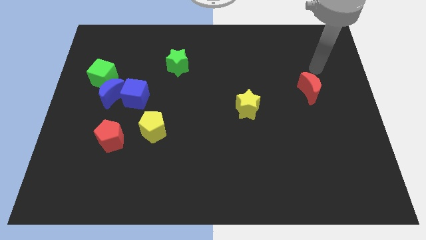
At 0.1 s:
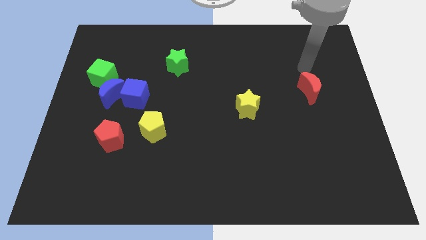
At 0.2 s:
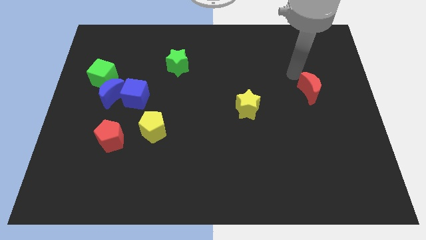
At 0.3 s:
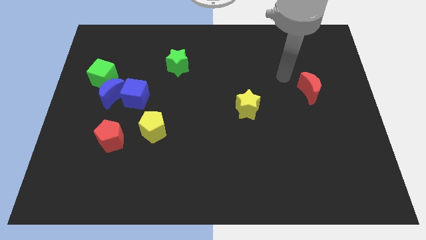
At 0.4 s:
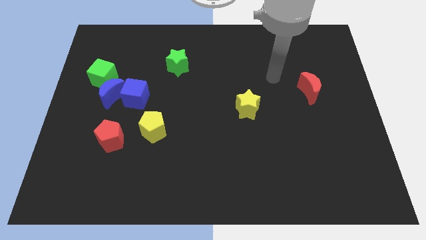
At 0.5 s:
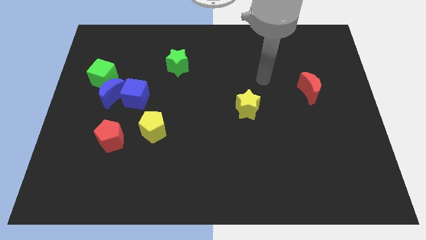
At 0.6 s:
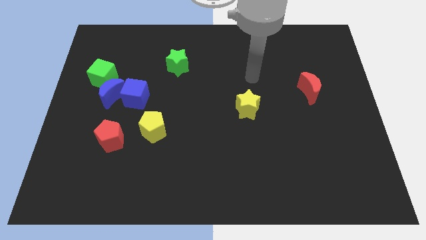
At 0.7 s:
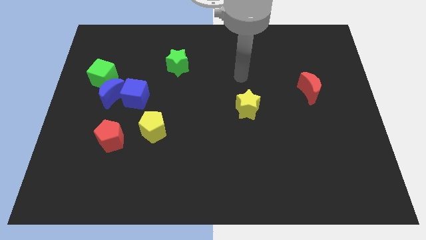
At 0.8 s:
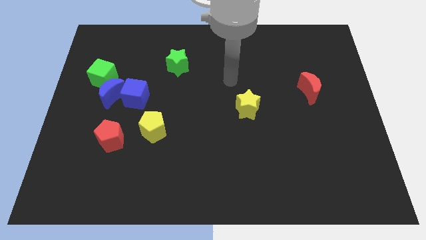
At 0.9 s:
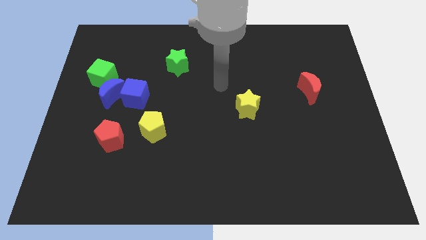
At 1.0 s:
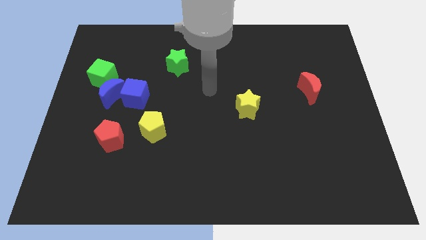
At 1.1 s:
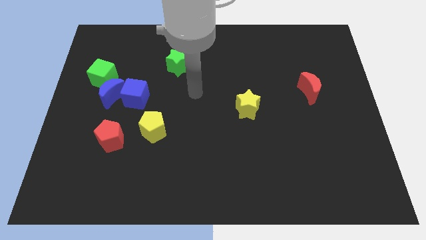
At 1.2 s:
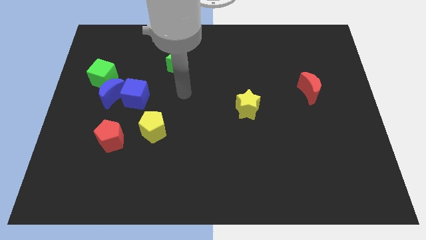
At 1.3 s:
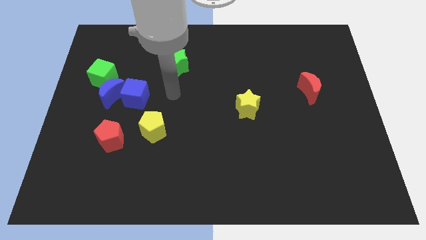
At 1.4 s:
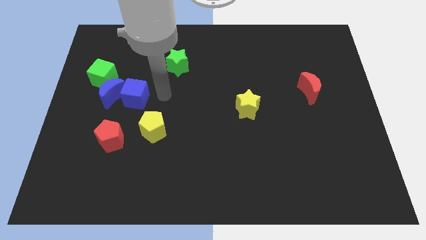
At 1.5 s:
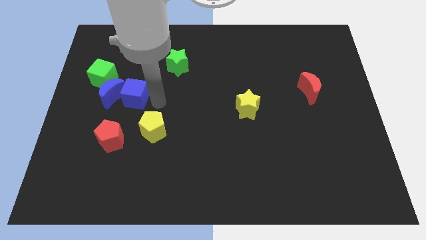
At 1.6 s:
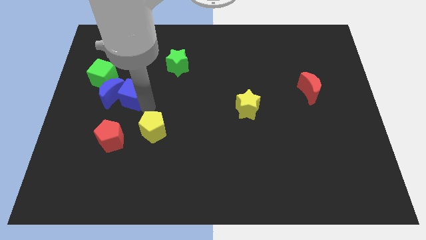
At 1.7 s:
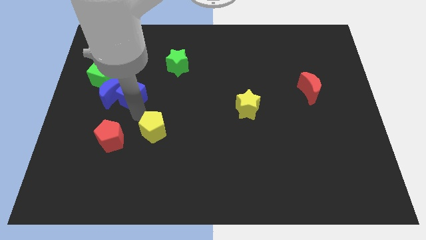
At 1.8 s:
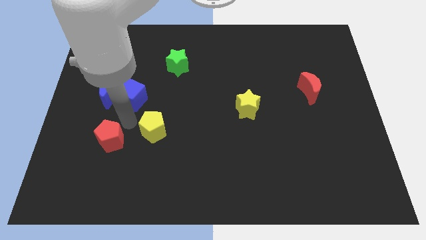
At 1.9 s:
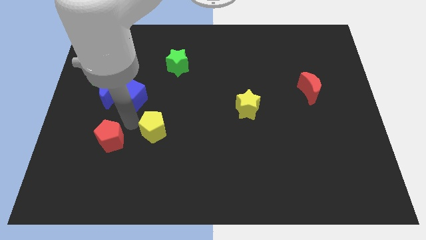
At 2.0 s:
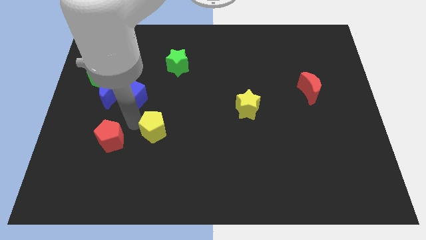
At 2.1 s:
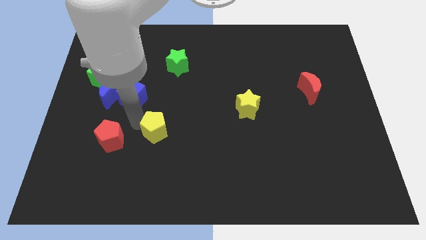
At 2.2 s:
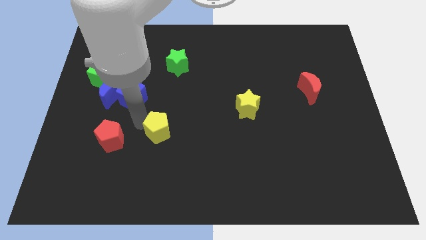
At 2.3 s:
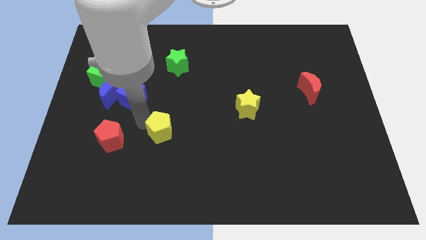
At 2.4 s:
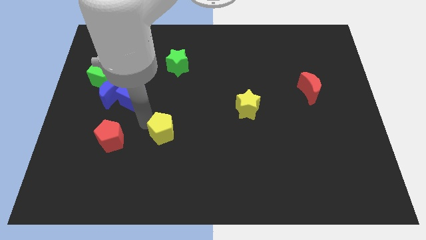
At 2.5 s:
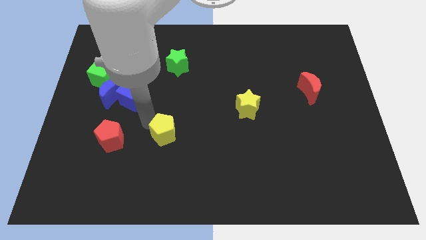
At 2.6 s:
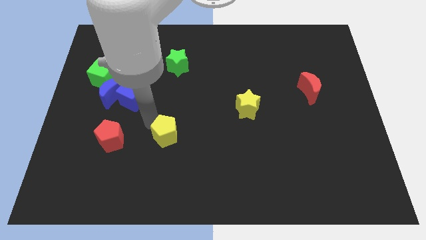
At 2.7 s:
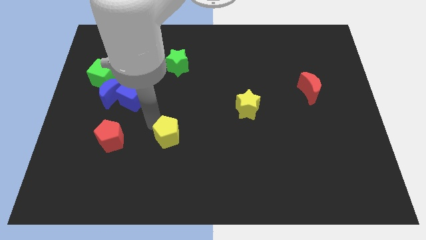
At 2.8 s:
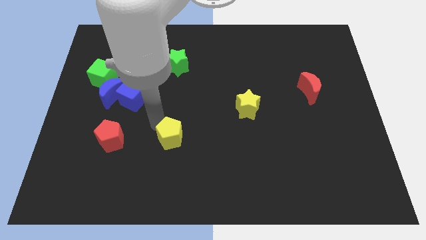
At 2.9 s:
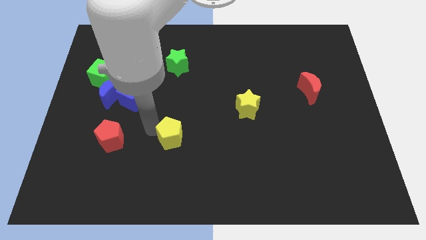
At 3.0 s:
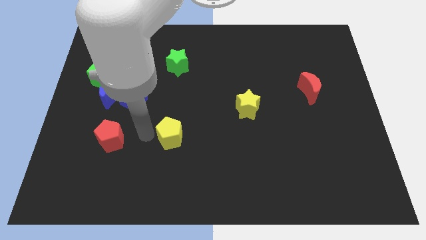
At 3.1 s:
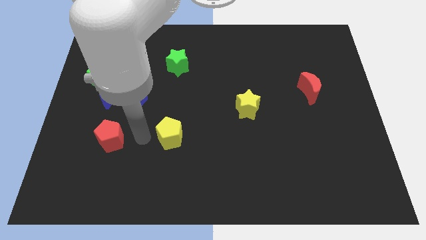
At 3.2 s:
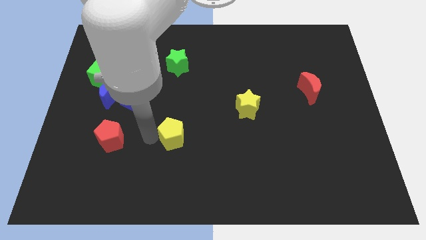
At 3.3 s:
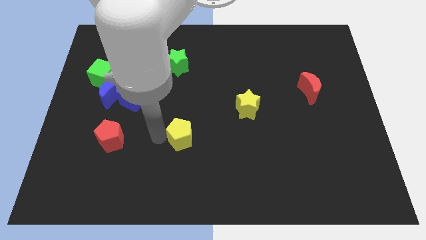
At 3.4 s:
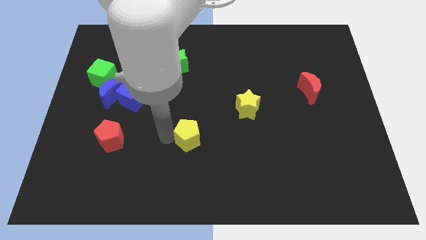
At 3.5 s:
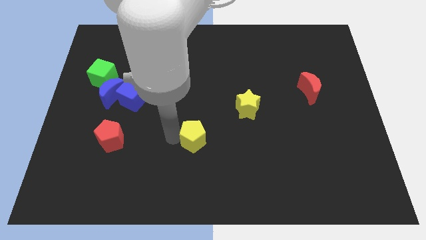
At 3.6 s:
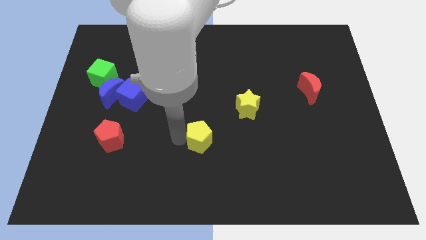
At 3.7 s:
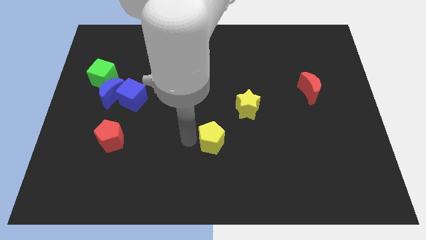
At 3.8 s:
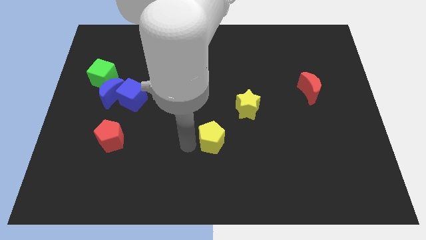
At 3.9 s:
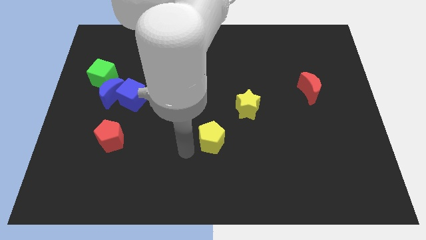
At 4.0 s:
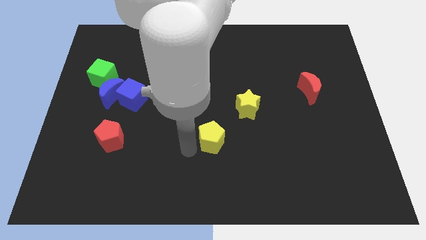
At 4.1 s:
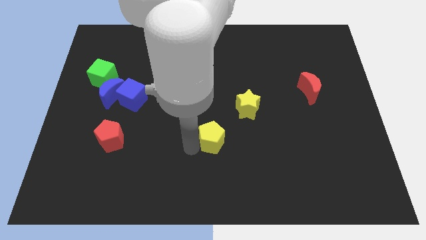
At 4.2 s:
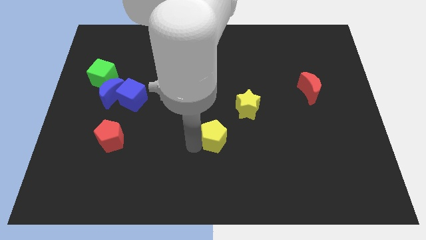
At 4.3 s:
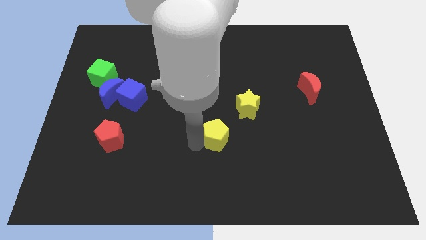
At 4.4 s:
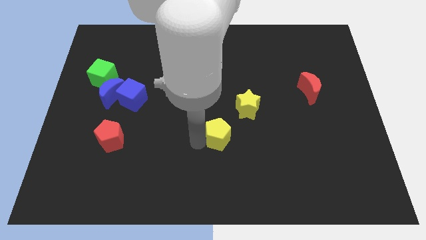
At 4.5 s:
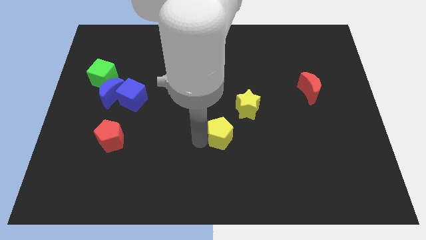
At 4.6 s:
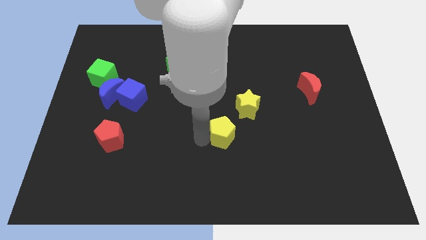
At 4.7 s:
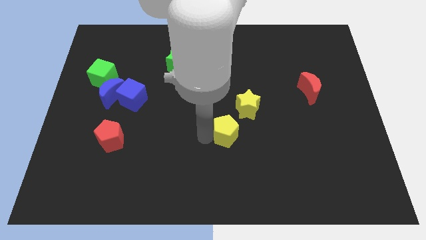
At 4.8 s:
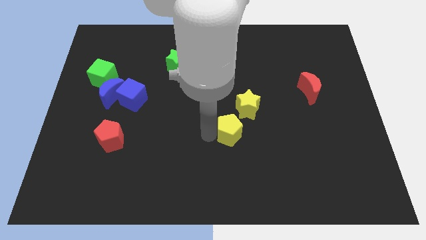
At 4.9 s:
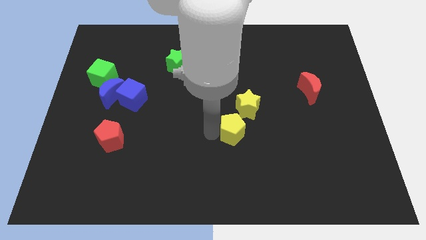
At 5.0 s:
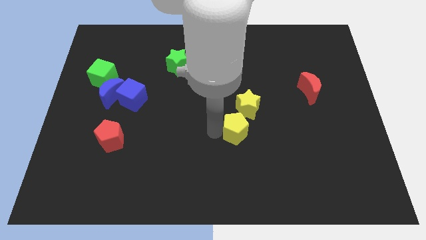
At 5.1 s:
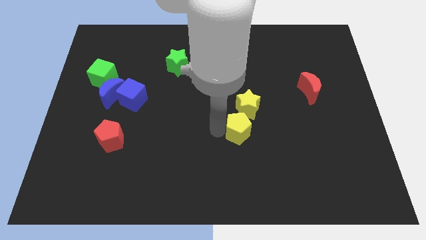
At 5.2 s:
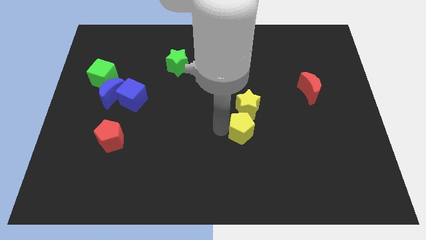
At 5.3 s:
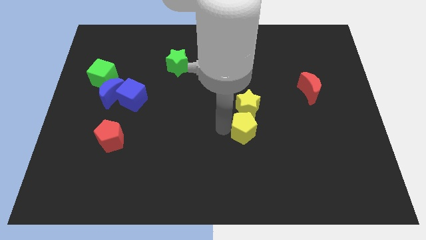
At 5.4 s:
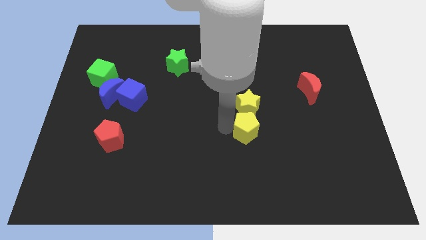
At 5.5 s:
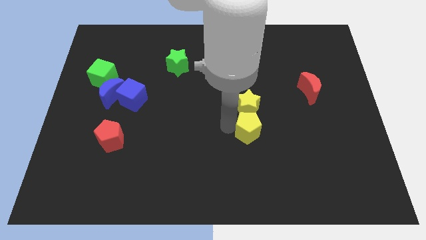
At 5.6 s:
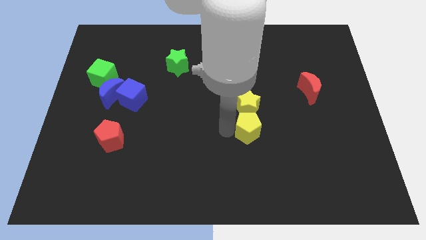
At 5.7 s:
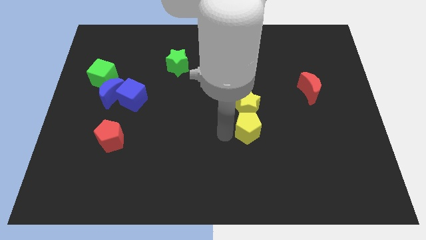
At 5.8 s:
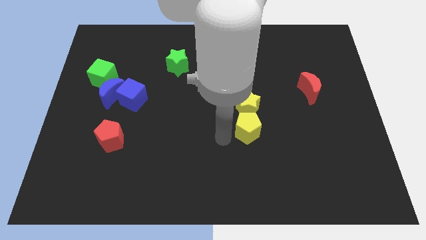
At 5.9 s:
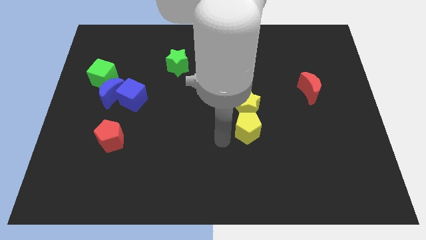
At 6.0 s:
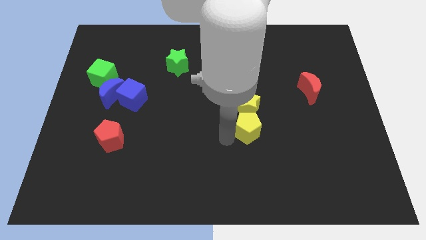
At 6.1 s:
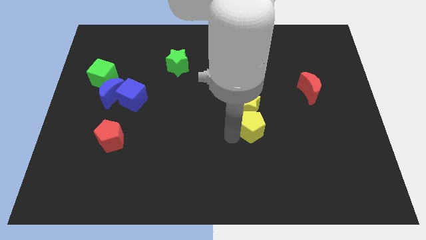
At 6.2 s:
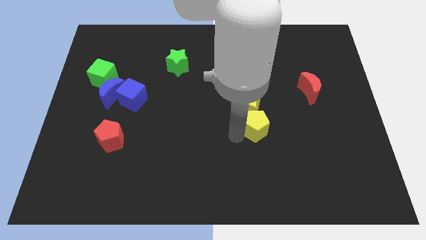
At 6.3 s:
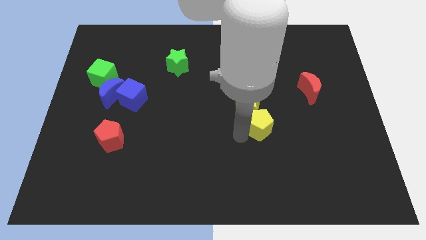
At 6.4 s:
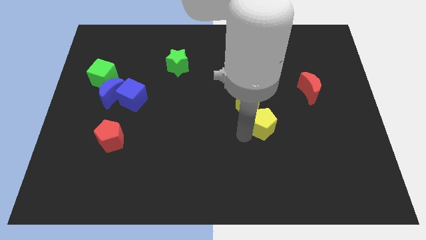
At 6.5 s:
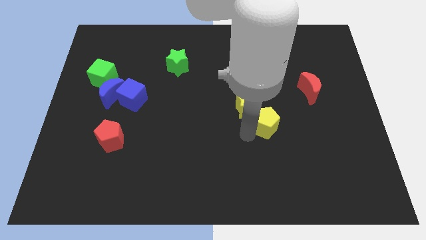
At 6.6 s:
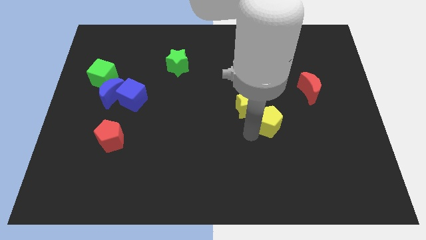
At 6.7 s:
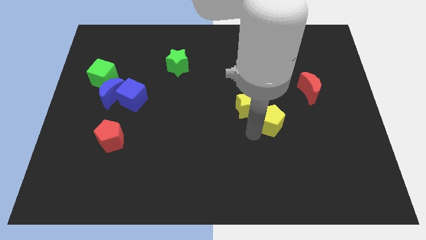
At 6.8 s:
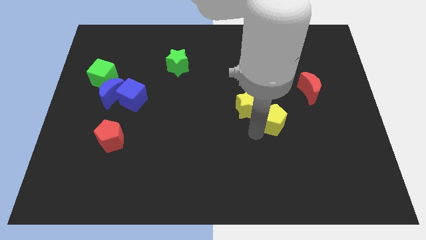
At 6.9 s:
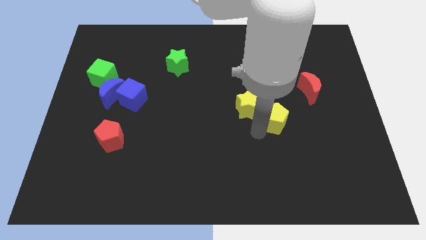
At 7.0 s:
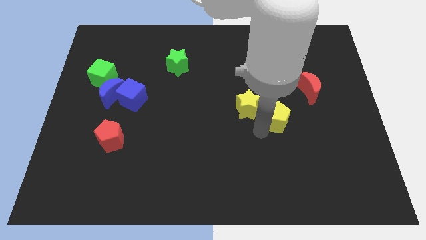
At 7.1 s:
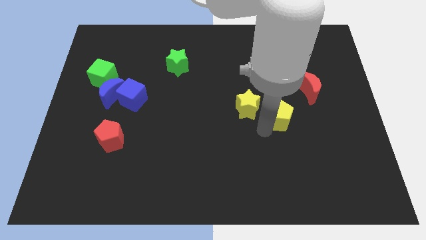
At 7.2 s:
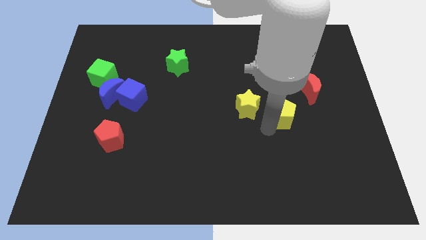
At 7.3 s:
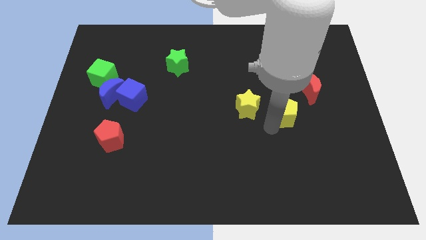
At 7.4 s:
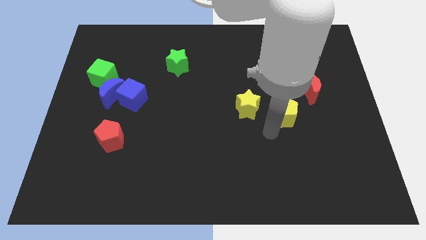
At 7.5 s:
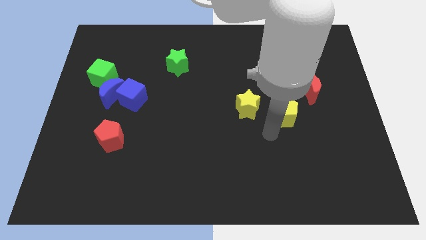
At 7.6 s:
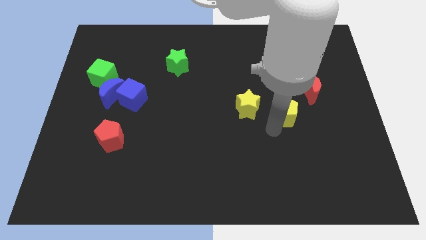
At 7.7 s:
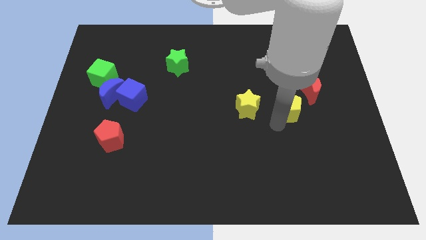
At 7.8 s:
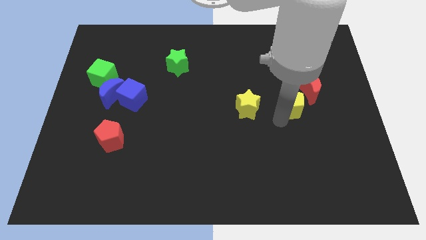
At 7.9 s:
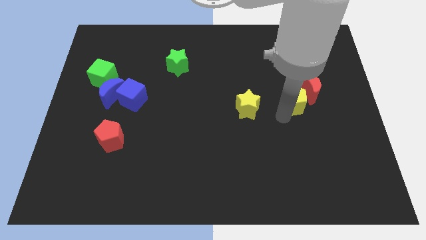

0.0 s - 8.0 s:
push the yellow pentagon to the red moon
